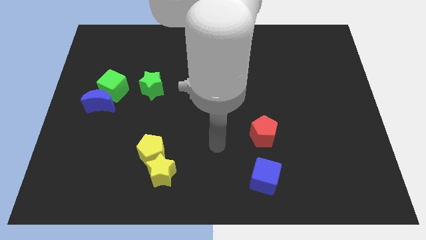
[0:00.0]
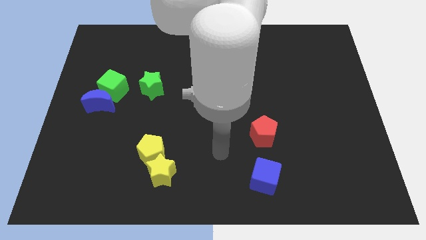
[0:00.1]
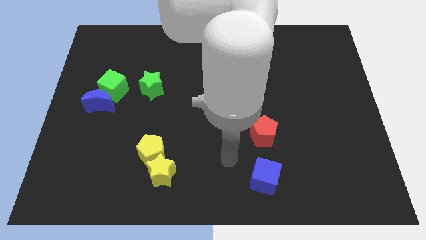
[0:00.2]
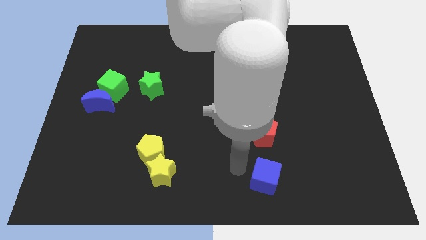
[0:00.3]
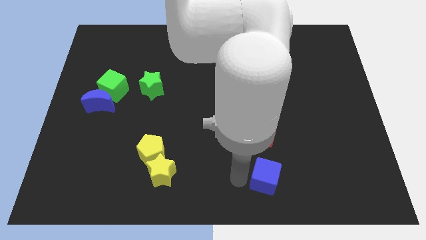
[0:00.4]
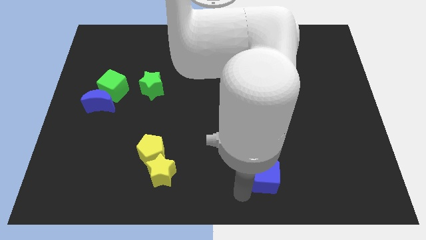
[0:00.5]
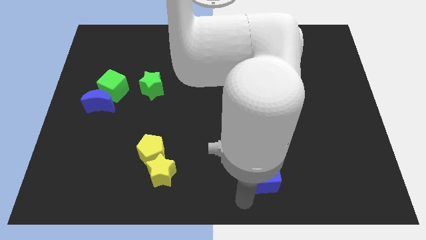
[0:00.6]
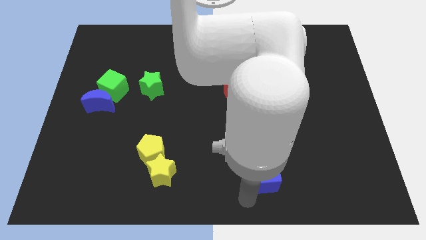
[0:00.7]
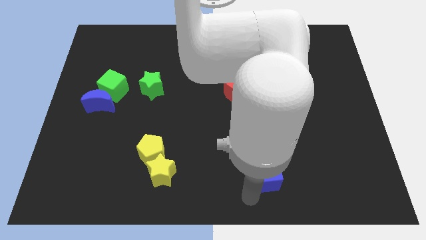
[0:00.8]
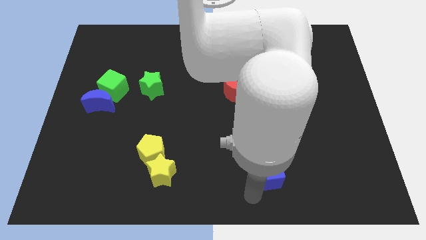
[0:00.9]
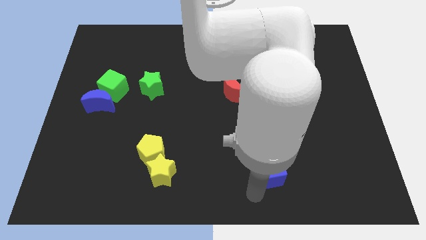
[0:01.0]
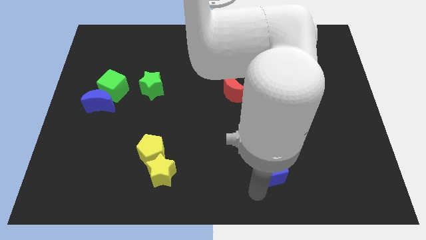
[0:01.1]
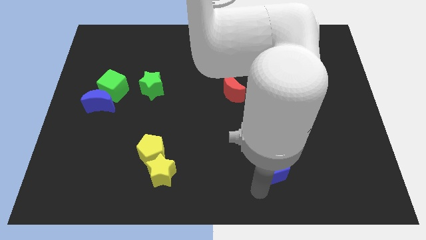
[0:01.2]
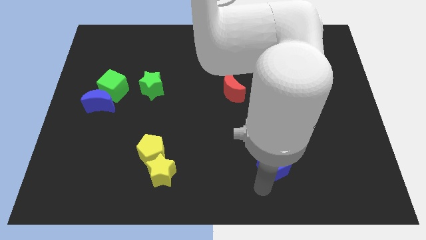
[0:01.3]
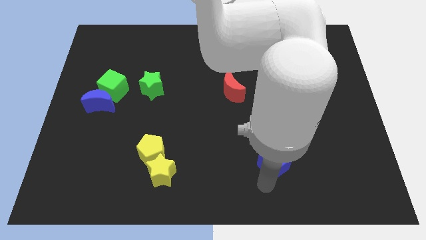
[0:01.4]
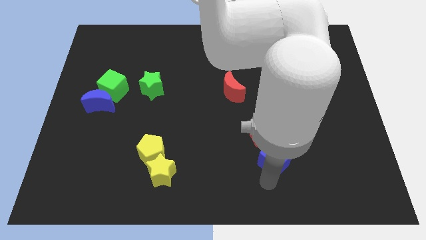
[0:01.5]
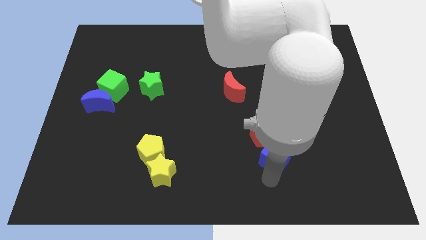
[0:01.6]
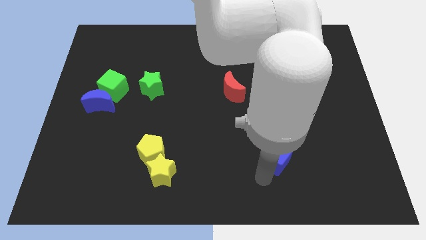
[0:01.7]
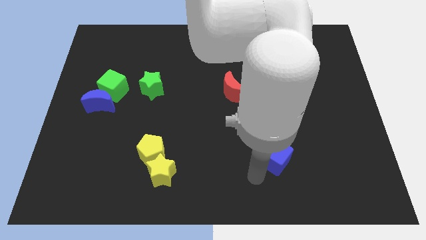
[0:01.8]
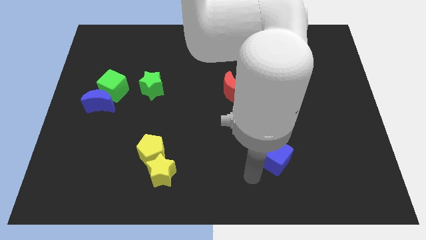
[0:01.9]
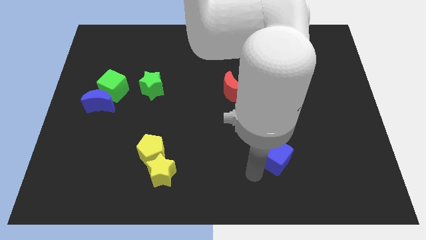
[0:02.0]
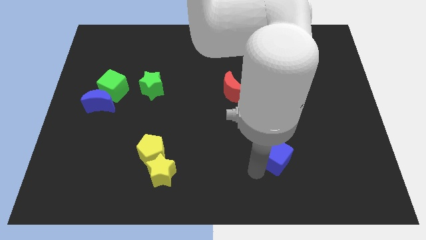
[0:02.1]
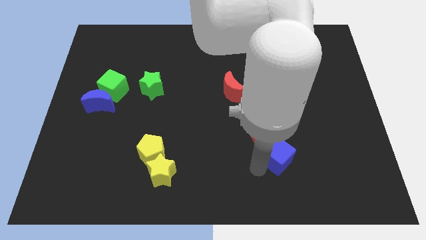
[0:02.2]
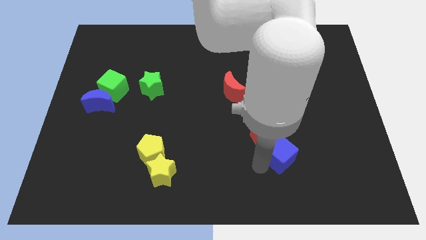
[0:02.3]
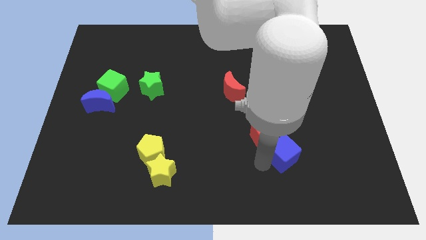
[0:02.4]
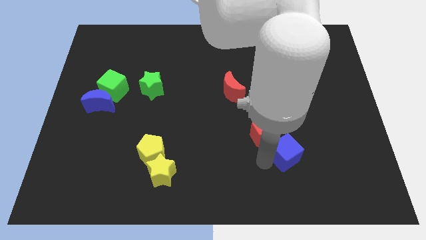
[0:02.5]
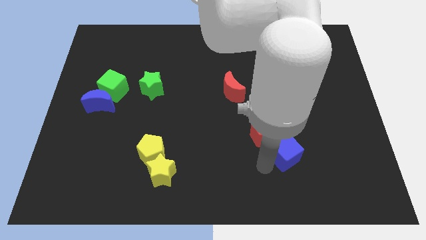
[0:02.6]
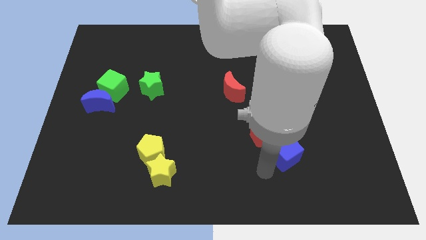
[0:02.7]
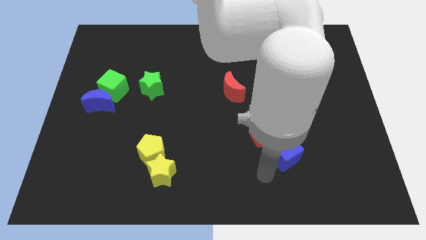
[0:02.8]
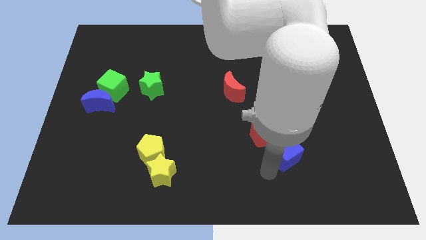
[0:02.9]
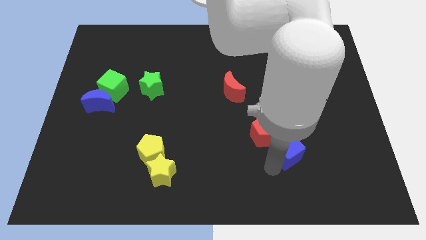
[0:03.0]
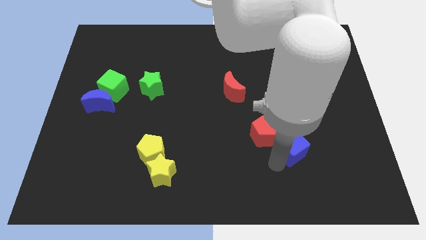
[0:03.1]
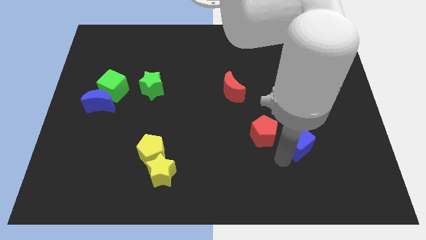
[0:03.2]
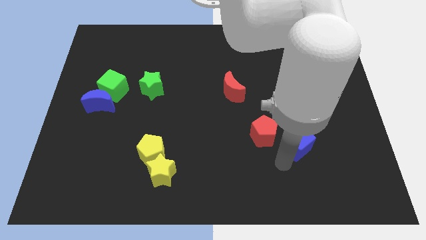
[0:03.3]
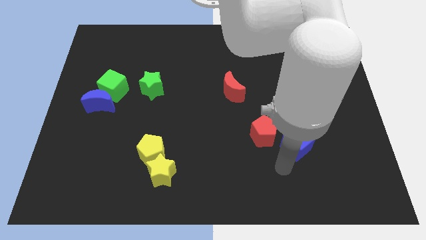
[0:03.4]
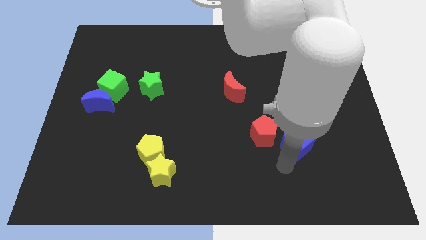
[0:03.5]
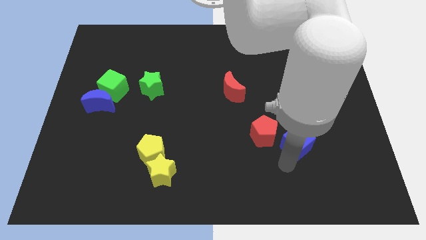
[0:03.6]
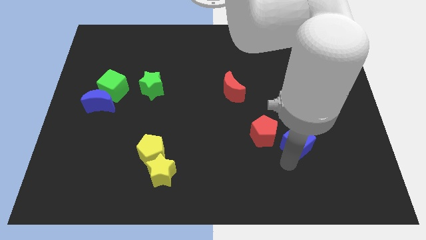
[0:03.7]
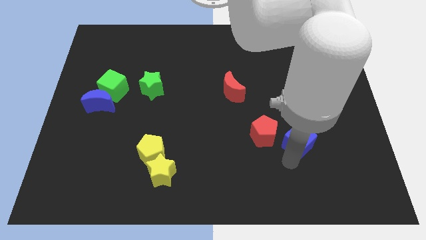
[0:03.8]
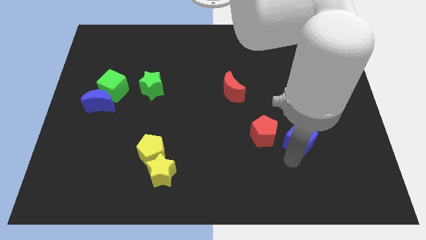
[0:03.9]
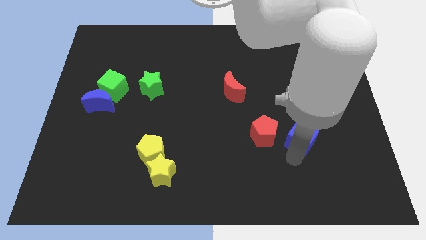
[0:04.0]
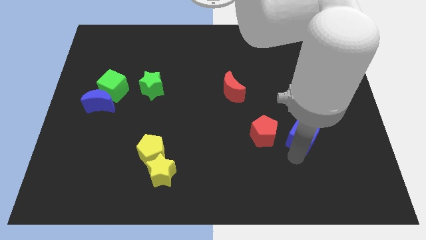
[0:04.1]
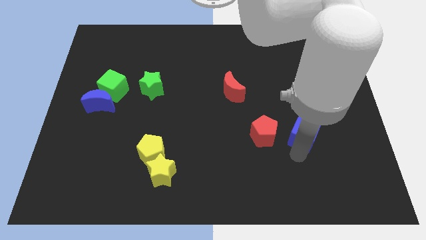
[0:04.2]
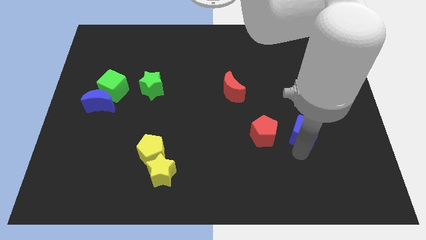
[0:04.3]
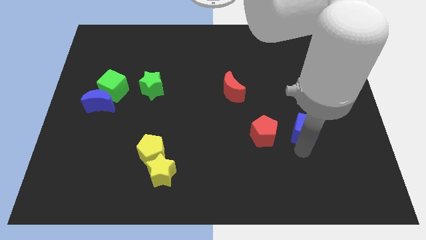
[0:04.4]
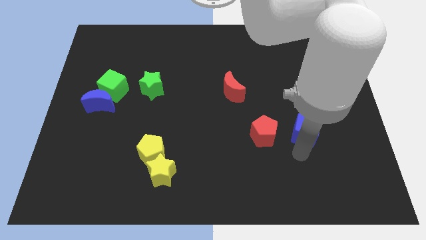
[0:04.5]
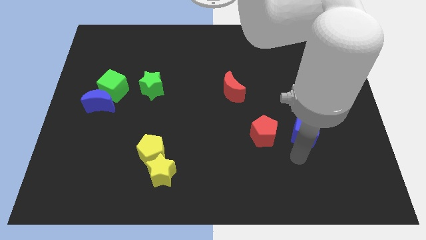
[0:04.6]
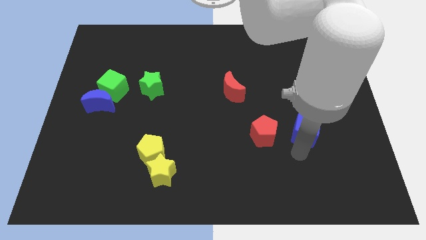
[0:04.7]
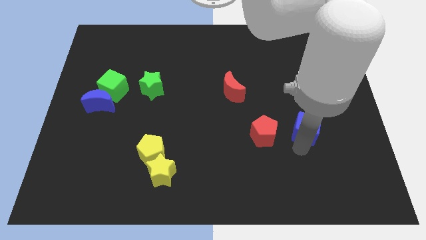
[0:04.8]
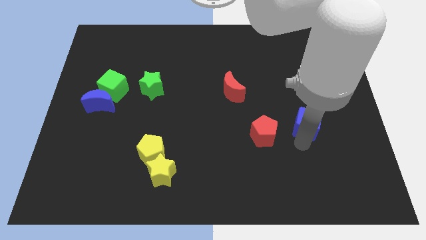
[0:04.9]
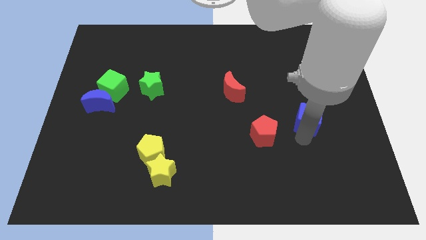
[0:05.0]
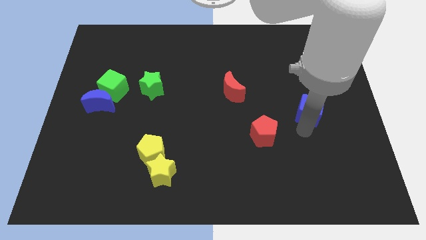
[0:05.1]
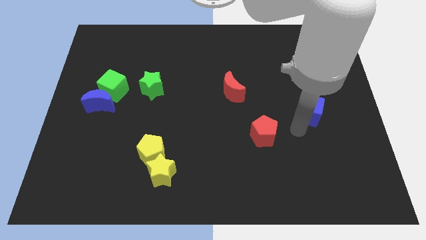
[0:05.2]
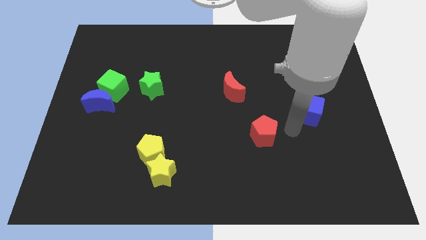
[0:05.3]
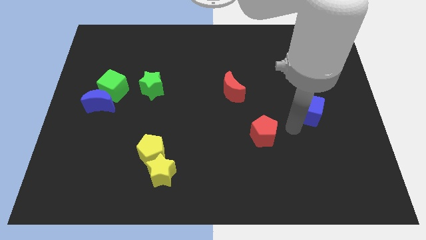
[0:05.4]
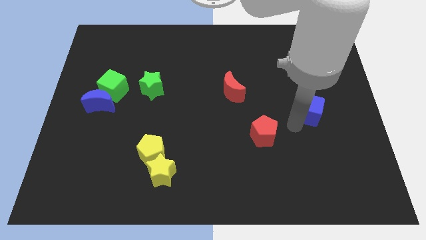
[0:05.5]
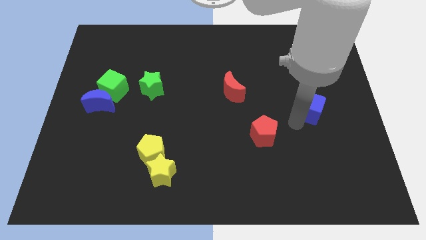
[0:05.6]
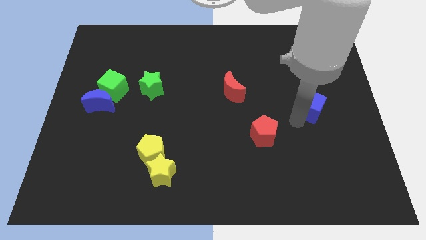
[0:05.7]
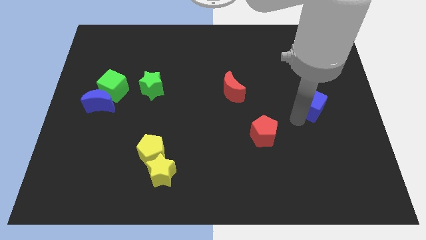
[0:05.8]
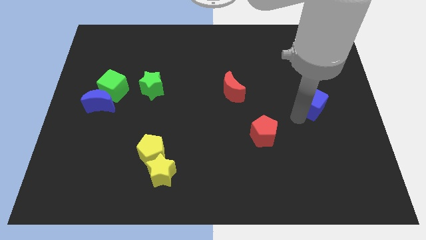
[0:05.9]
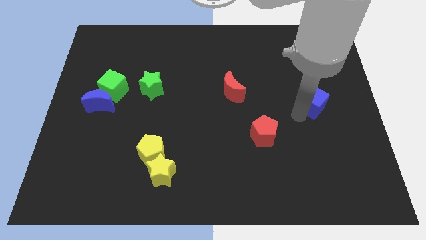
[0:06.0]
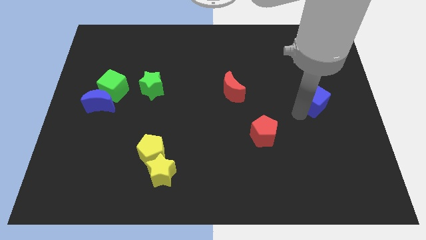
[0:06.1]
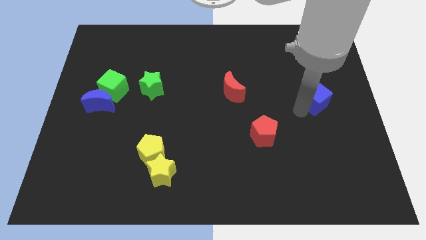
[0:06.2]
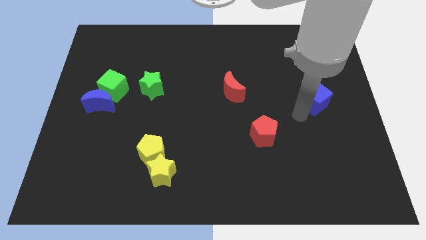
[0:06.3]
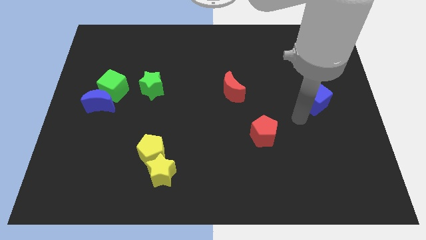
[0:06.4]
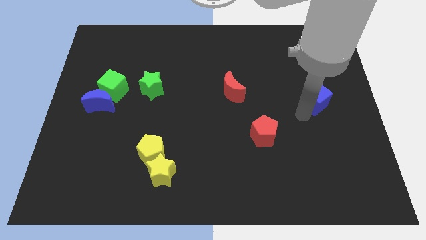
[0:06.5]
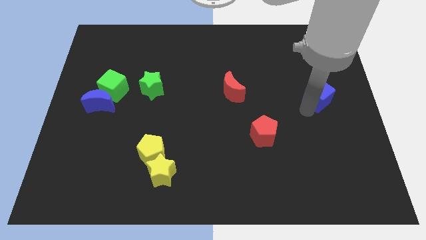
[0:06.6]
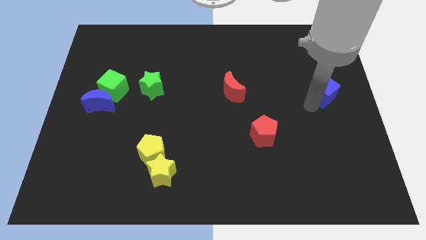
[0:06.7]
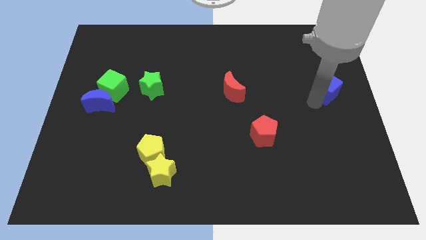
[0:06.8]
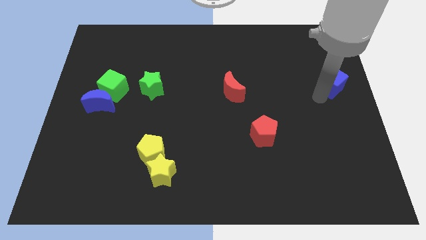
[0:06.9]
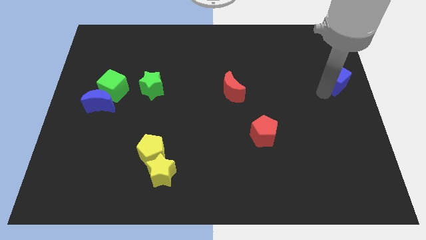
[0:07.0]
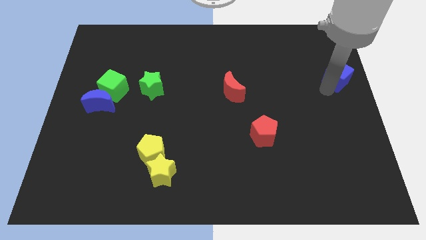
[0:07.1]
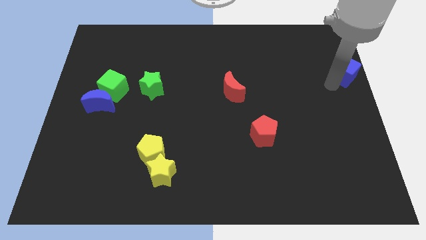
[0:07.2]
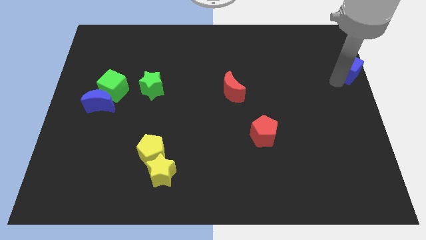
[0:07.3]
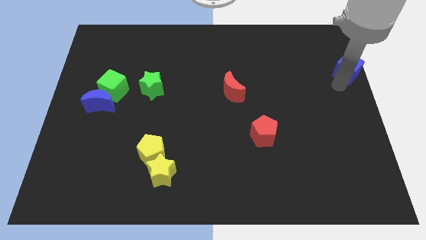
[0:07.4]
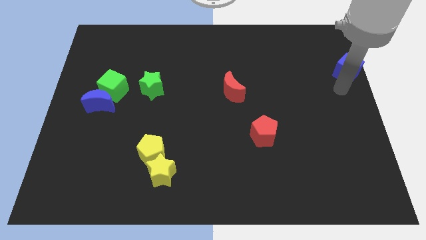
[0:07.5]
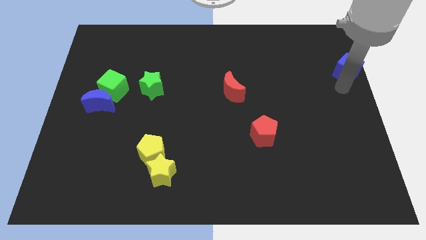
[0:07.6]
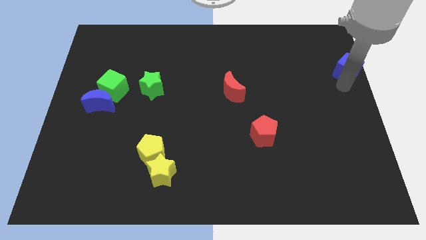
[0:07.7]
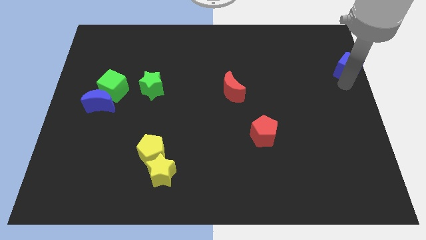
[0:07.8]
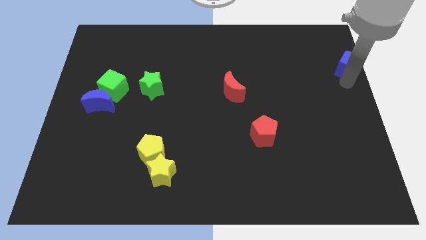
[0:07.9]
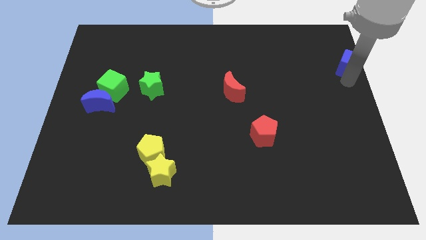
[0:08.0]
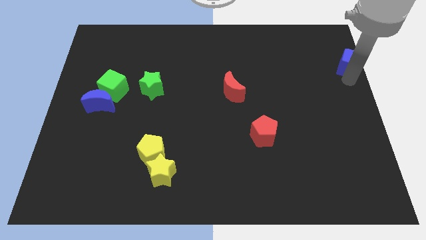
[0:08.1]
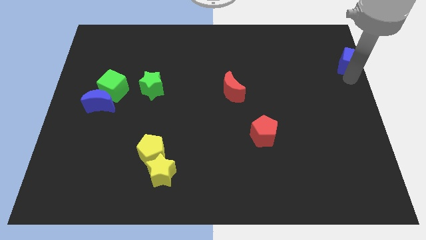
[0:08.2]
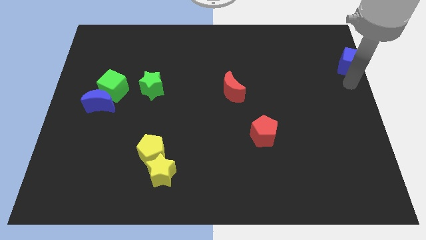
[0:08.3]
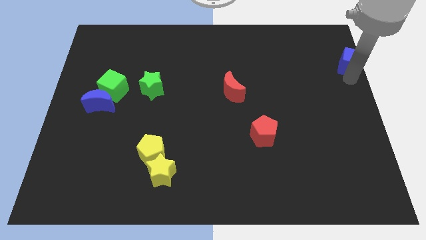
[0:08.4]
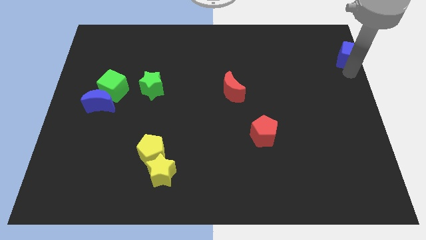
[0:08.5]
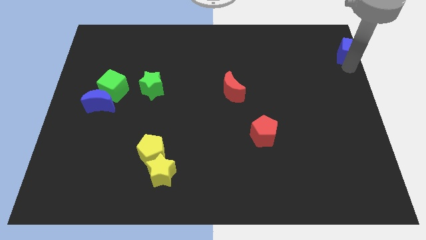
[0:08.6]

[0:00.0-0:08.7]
move the blue cube to the top right
